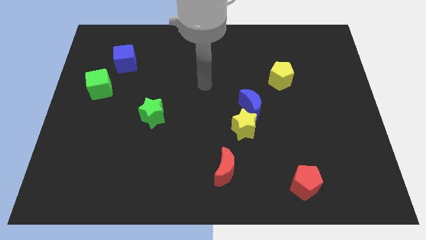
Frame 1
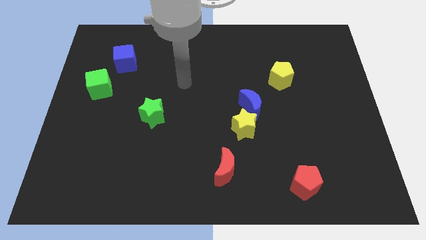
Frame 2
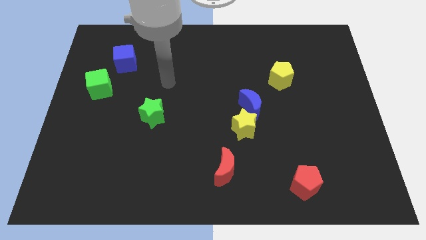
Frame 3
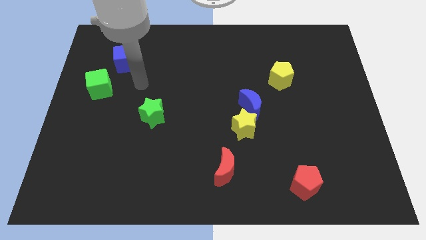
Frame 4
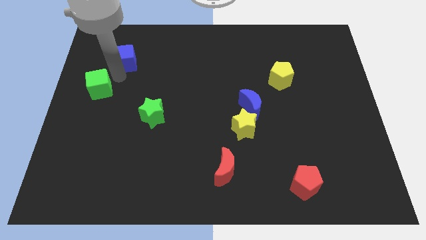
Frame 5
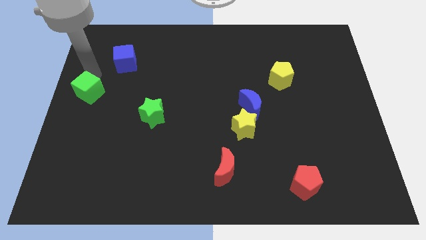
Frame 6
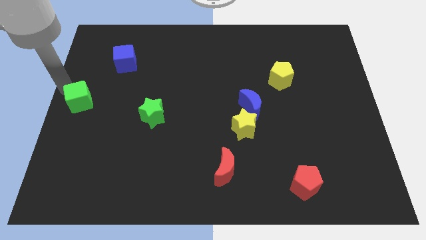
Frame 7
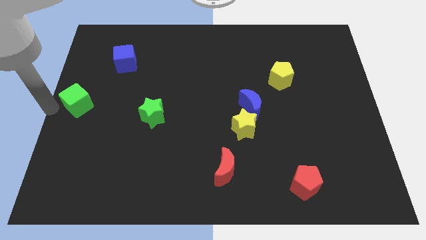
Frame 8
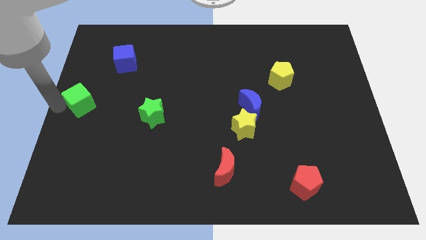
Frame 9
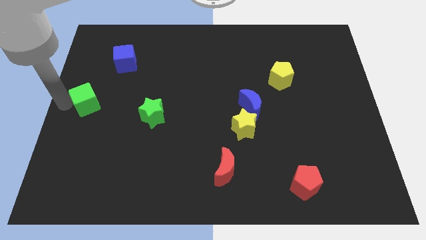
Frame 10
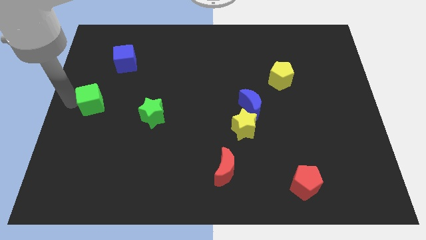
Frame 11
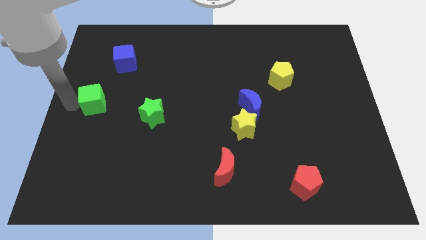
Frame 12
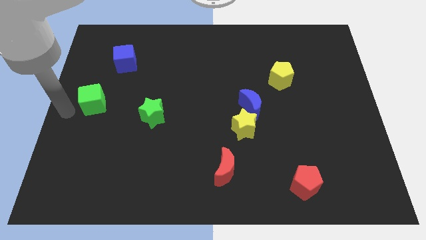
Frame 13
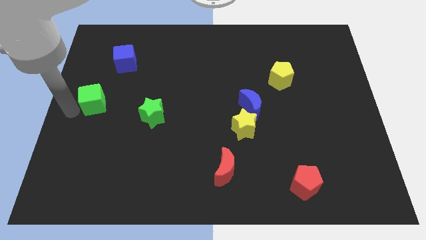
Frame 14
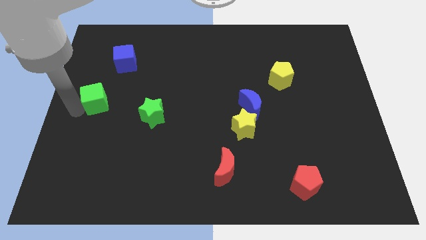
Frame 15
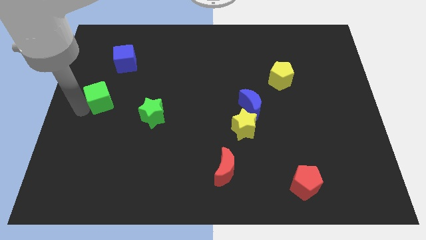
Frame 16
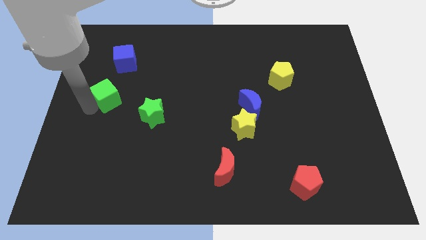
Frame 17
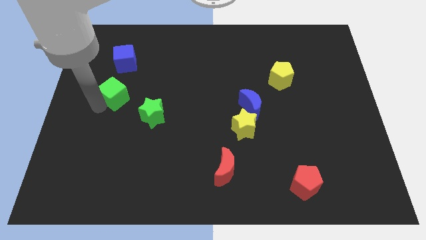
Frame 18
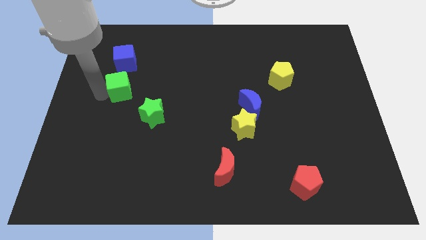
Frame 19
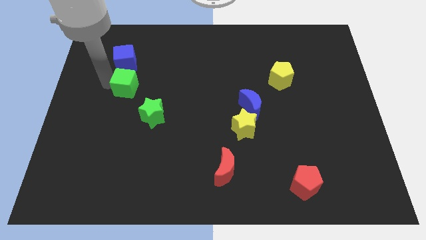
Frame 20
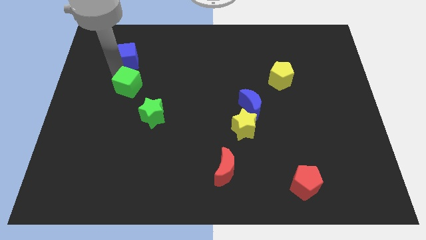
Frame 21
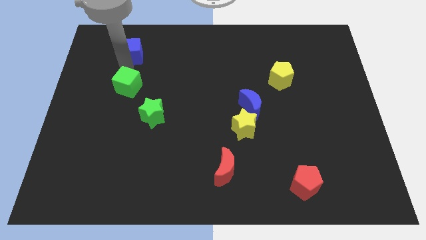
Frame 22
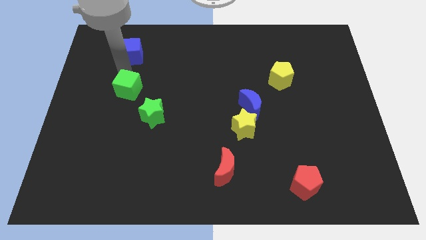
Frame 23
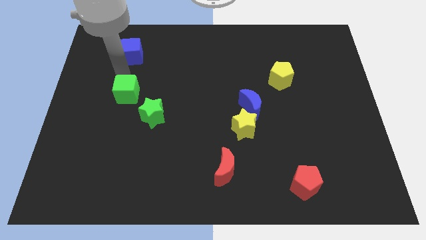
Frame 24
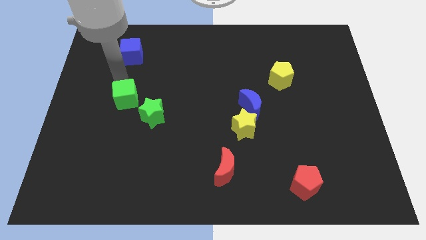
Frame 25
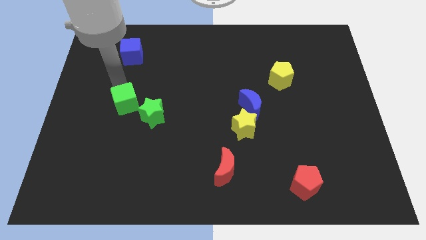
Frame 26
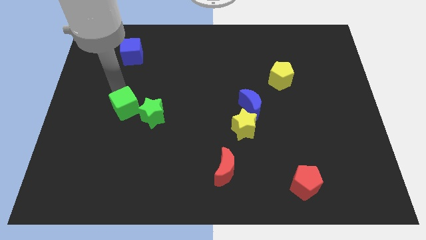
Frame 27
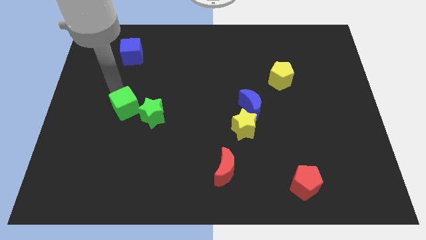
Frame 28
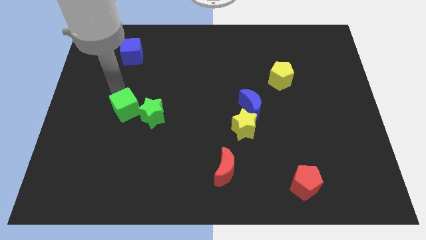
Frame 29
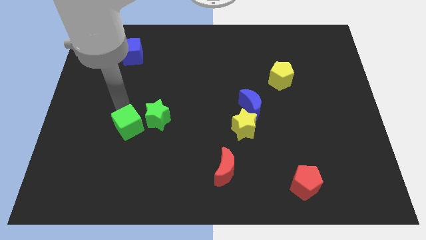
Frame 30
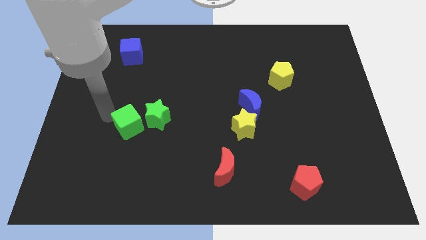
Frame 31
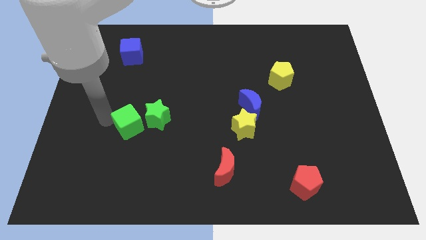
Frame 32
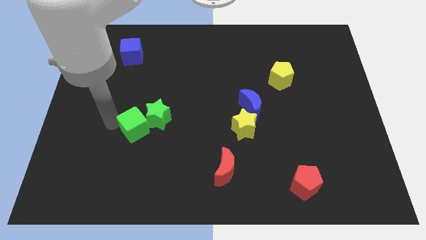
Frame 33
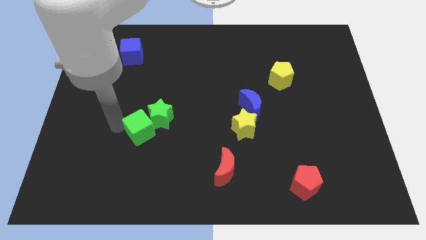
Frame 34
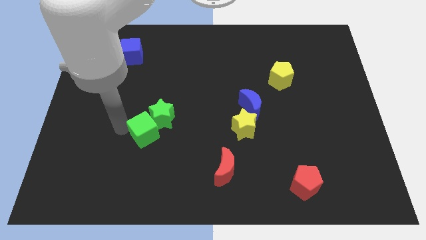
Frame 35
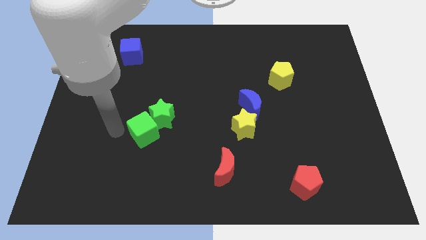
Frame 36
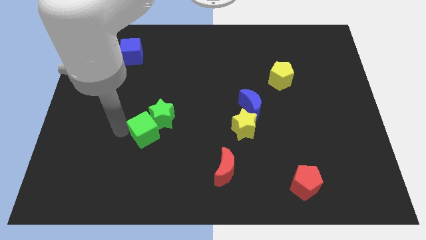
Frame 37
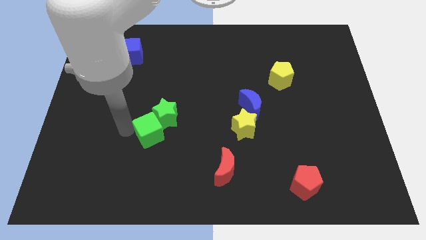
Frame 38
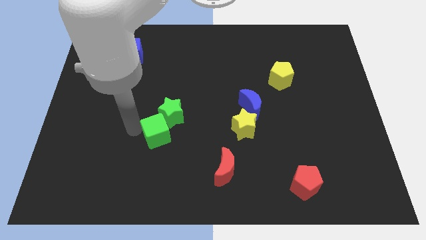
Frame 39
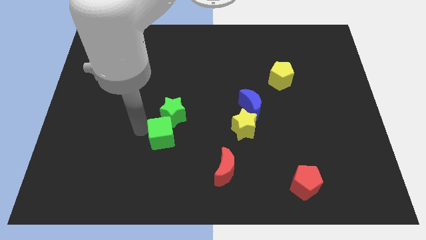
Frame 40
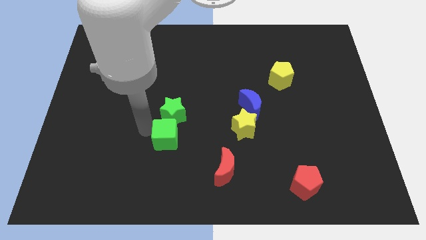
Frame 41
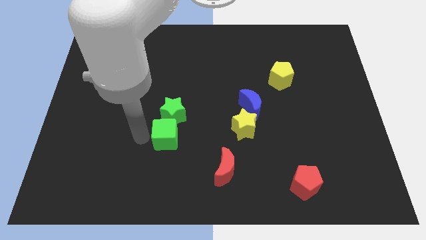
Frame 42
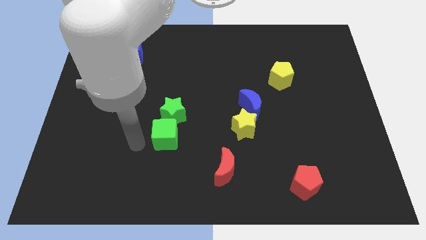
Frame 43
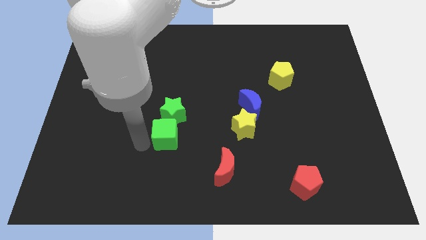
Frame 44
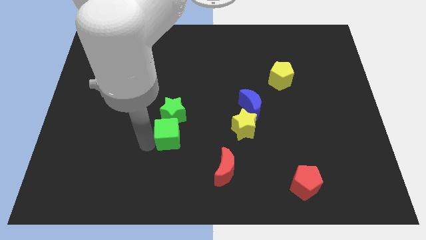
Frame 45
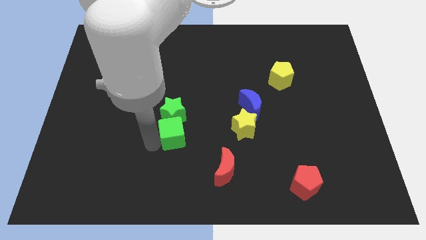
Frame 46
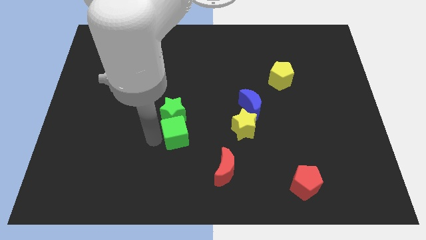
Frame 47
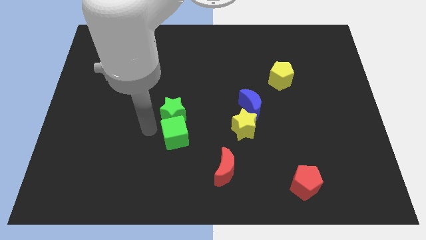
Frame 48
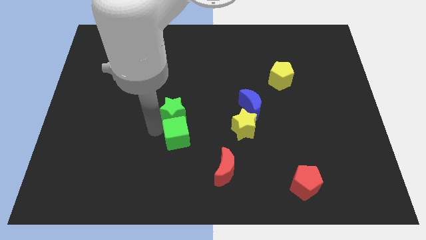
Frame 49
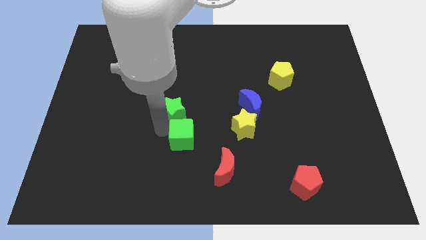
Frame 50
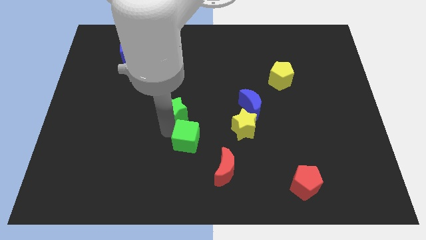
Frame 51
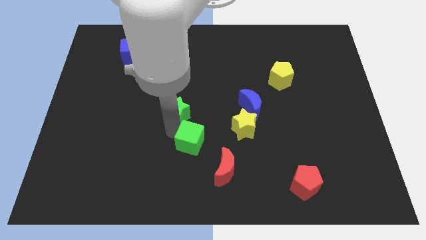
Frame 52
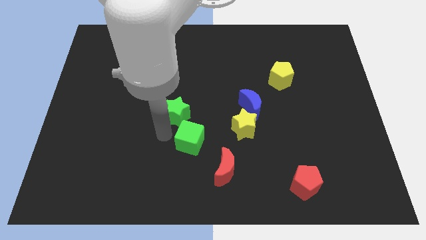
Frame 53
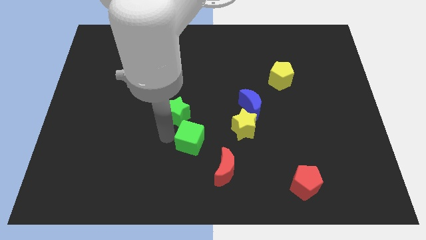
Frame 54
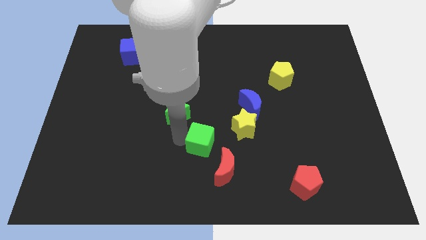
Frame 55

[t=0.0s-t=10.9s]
slide the green cube diagonally down and to the left of the yellow star

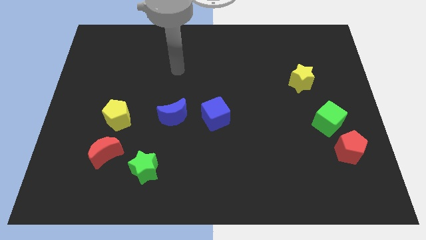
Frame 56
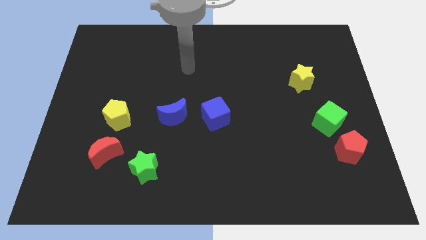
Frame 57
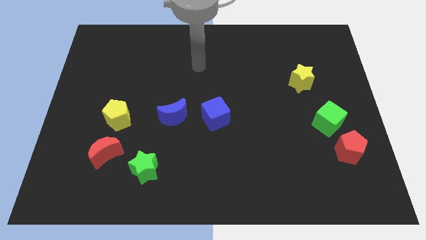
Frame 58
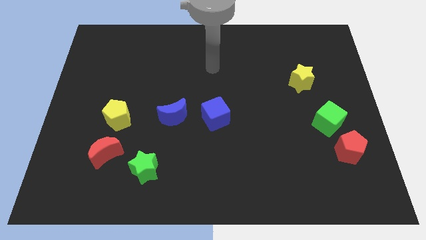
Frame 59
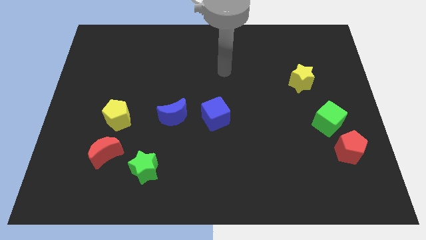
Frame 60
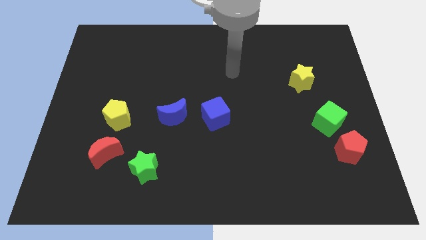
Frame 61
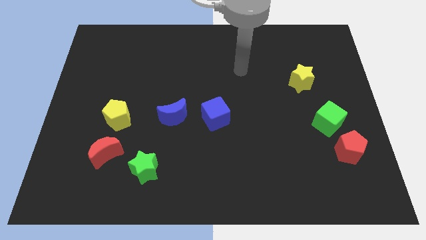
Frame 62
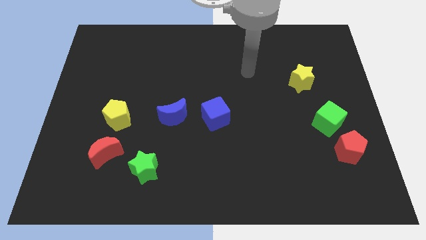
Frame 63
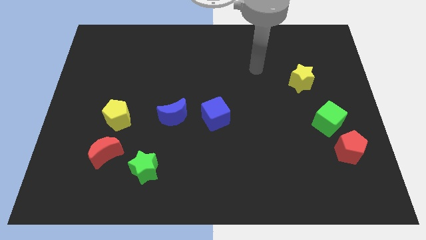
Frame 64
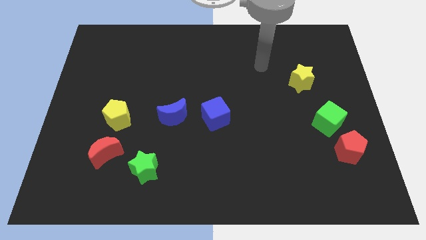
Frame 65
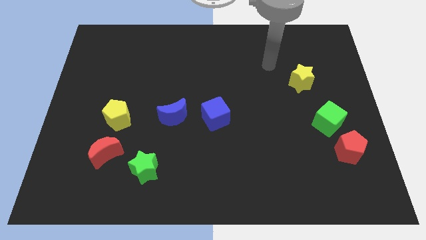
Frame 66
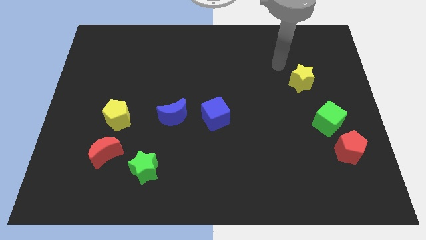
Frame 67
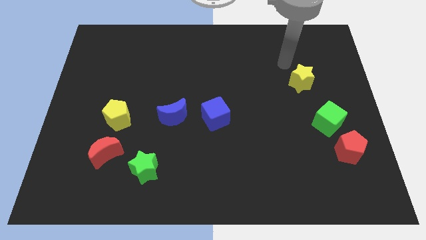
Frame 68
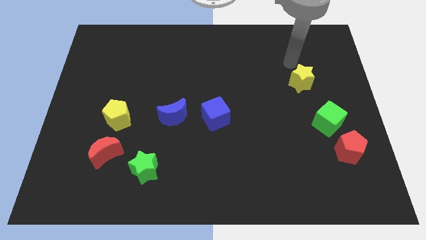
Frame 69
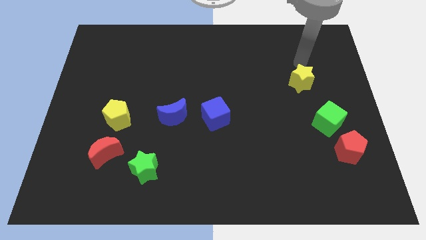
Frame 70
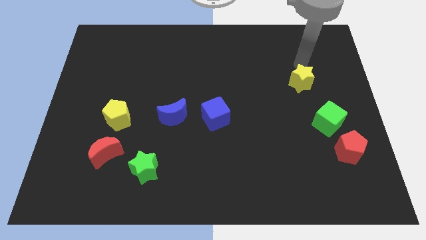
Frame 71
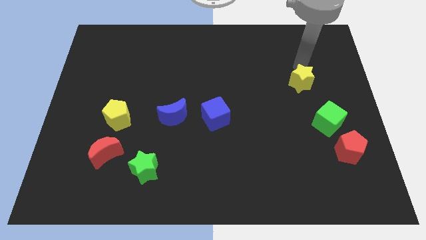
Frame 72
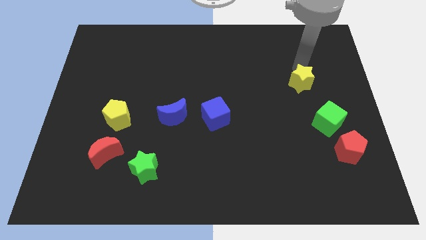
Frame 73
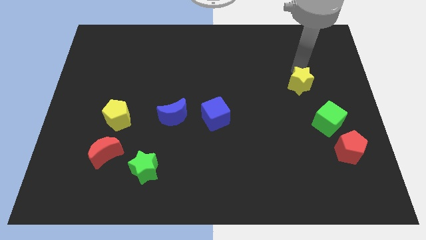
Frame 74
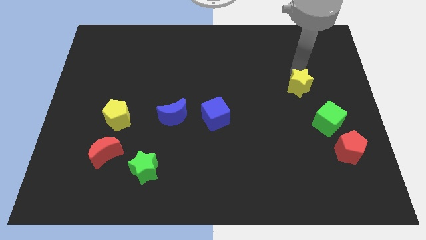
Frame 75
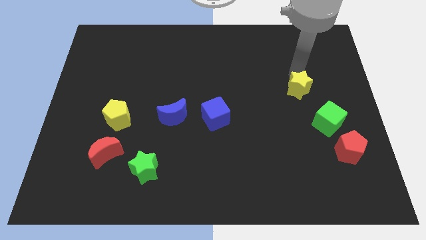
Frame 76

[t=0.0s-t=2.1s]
push the yellow star diagonally up and to the left of the green cube
